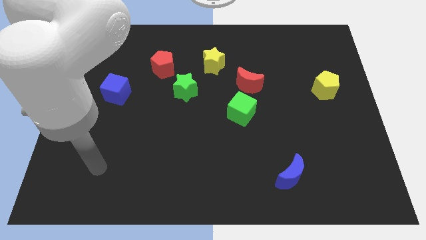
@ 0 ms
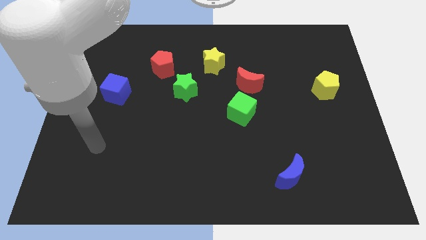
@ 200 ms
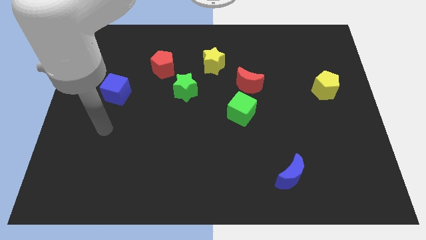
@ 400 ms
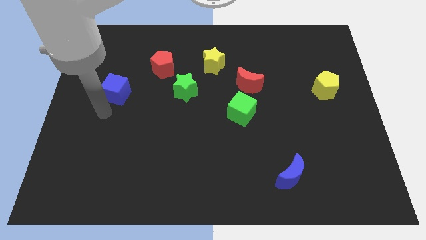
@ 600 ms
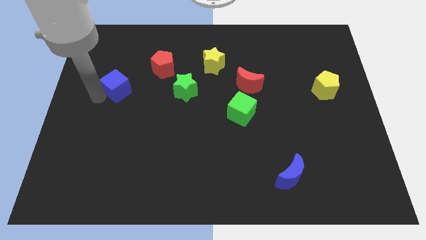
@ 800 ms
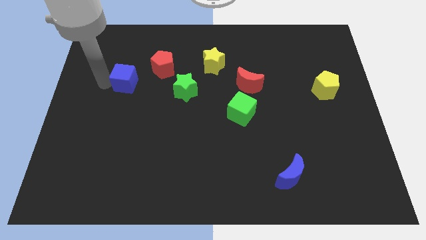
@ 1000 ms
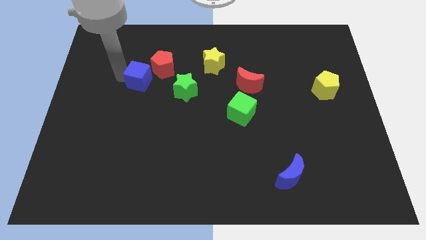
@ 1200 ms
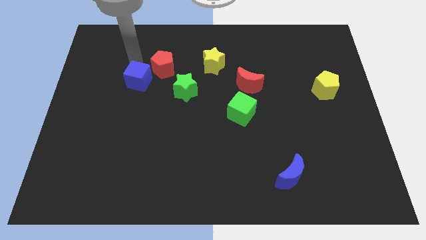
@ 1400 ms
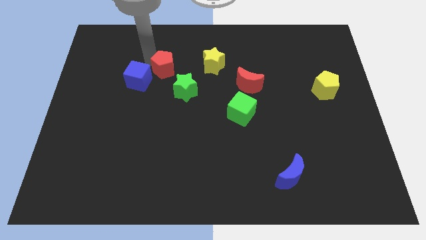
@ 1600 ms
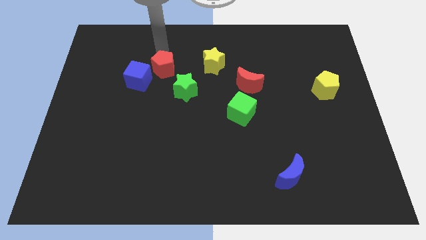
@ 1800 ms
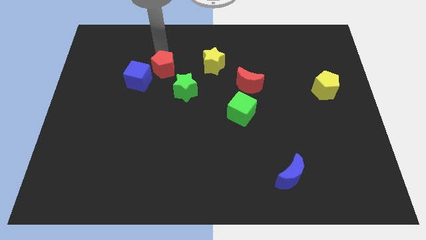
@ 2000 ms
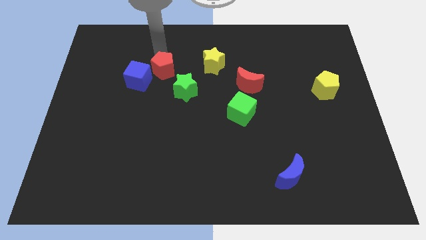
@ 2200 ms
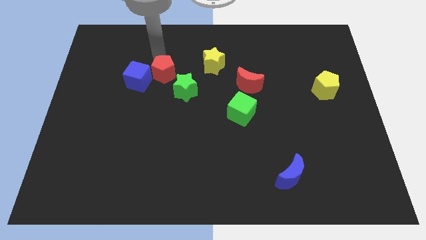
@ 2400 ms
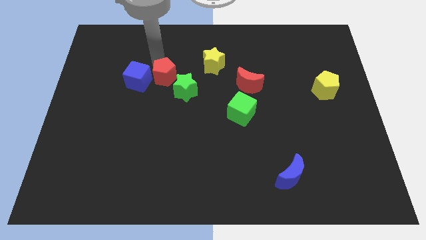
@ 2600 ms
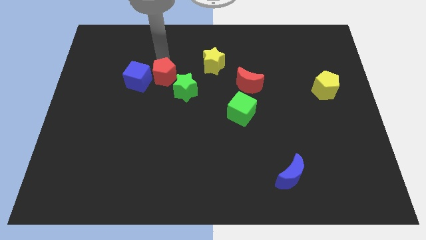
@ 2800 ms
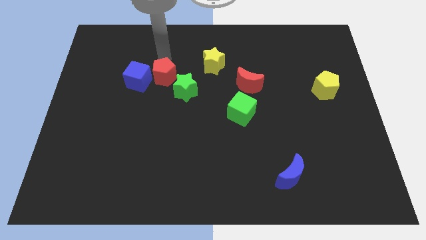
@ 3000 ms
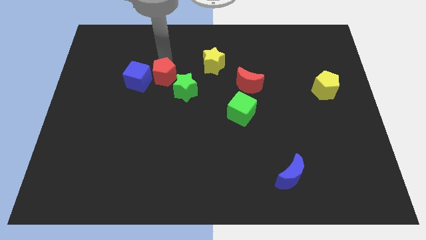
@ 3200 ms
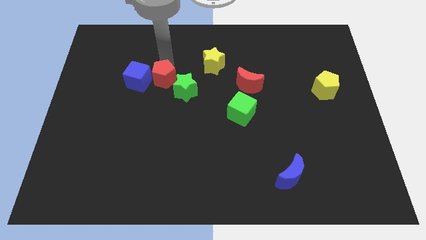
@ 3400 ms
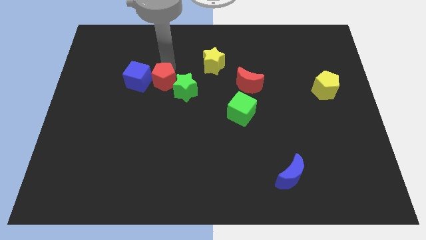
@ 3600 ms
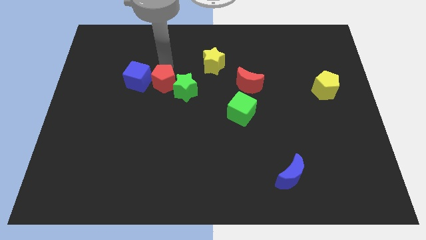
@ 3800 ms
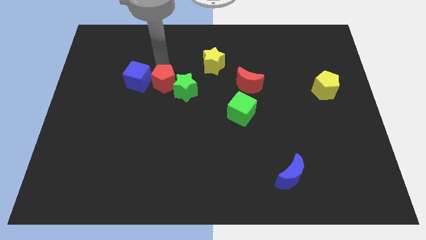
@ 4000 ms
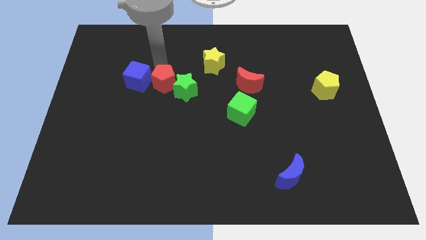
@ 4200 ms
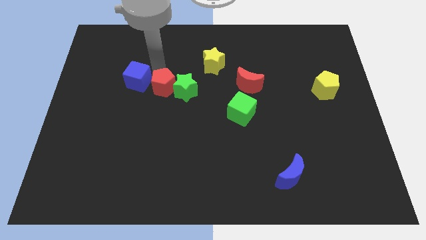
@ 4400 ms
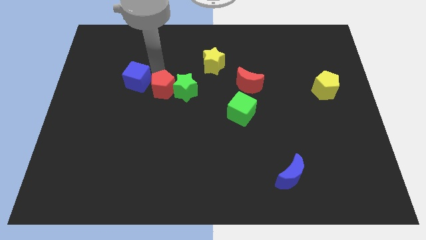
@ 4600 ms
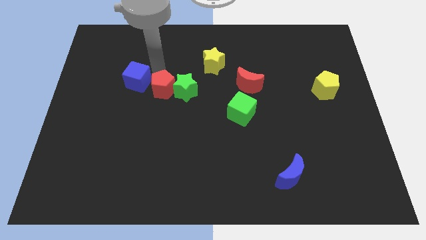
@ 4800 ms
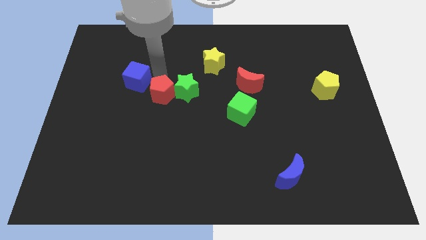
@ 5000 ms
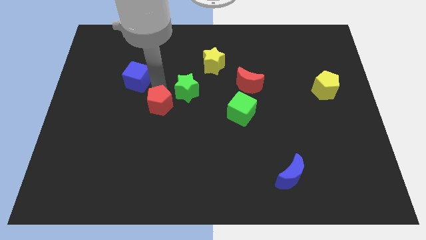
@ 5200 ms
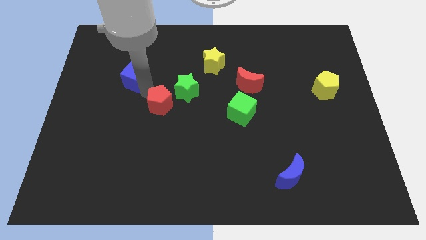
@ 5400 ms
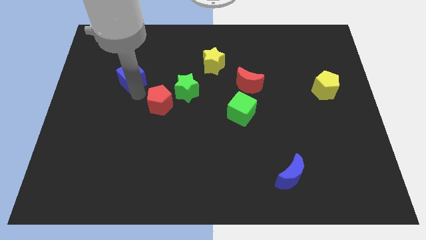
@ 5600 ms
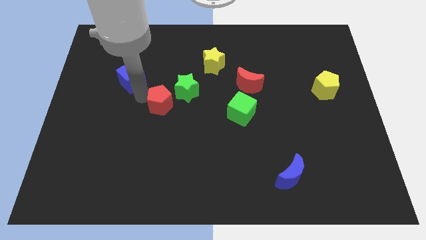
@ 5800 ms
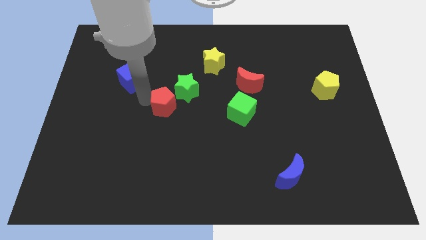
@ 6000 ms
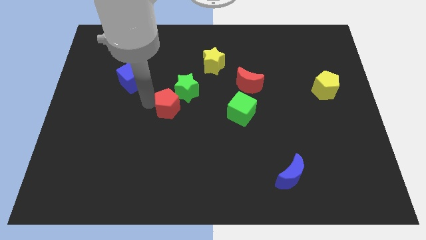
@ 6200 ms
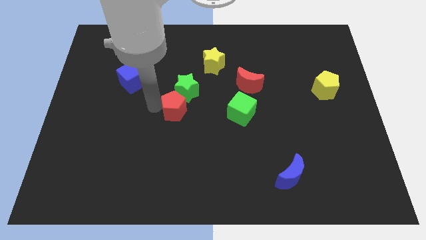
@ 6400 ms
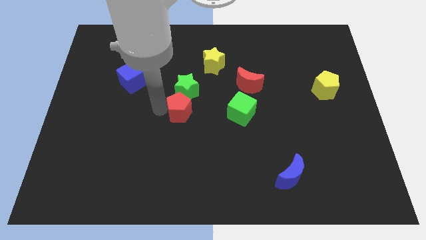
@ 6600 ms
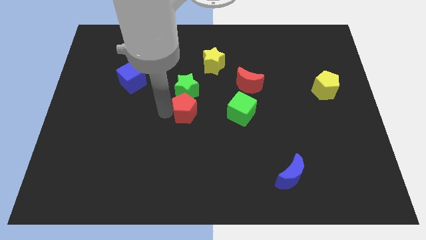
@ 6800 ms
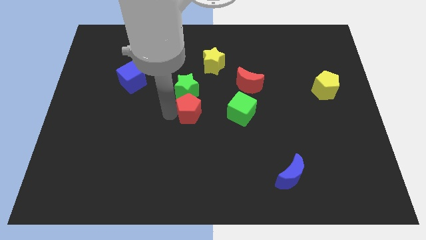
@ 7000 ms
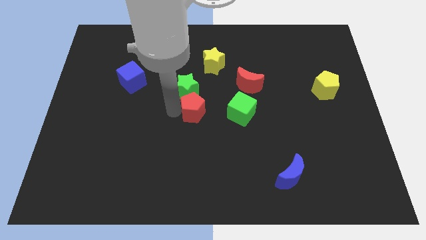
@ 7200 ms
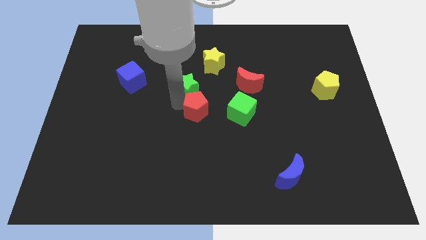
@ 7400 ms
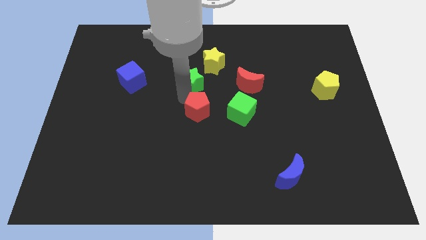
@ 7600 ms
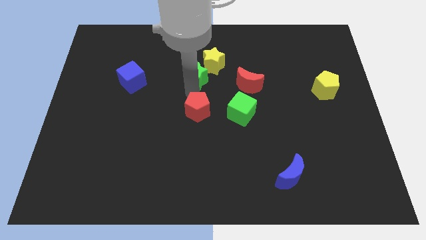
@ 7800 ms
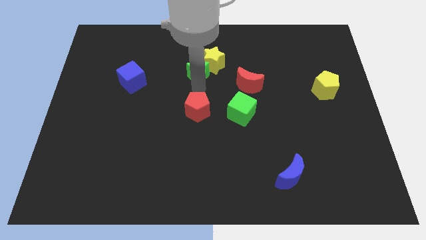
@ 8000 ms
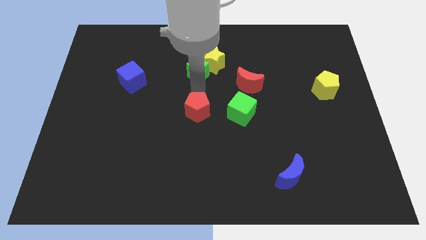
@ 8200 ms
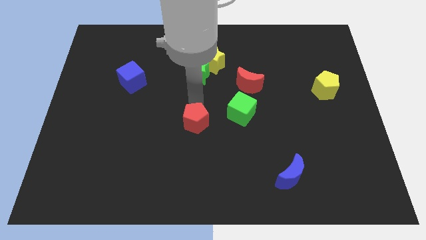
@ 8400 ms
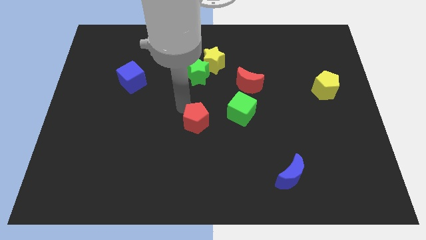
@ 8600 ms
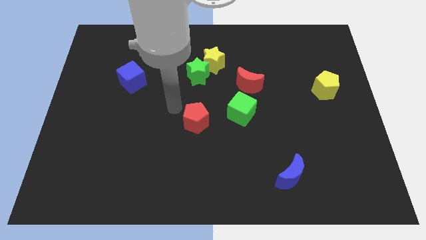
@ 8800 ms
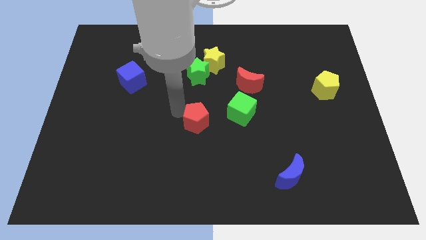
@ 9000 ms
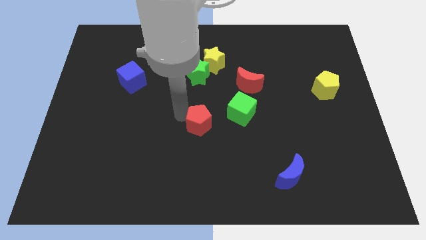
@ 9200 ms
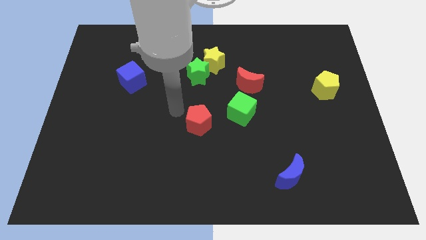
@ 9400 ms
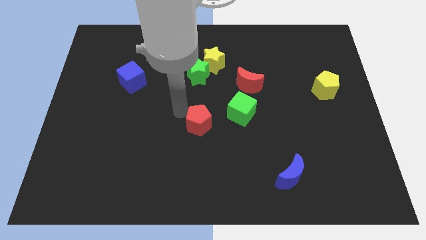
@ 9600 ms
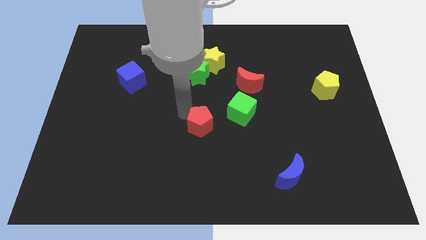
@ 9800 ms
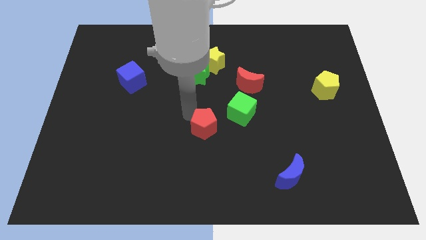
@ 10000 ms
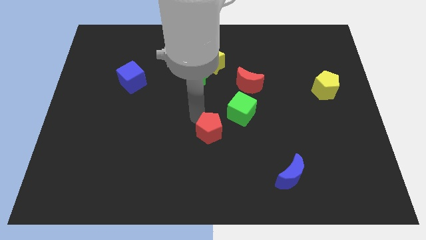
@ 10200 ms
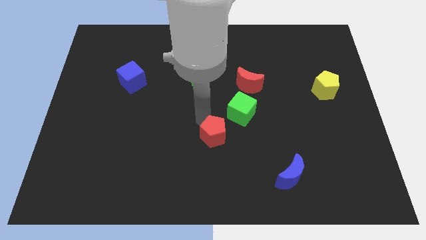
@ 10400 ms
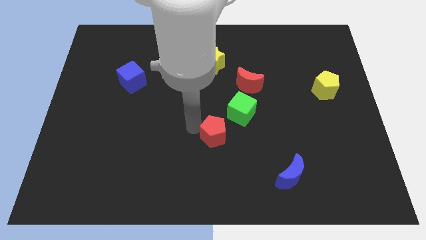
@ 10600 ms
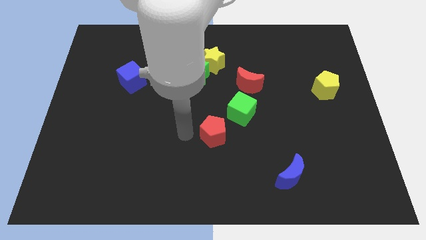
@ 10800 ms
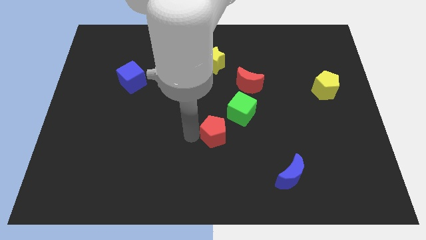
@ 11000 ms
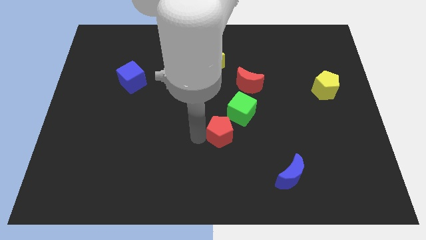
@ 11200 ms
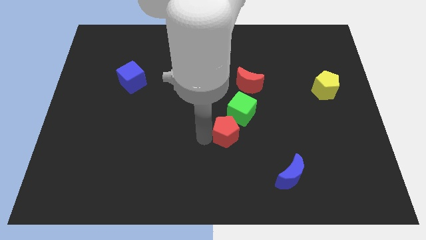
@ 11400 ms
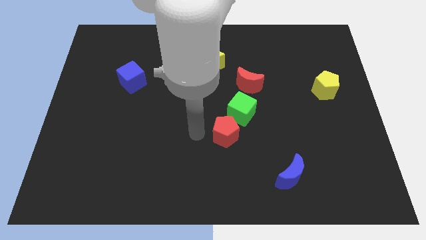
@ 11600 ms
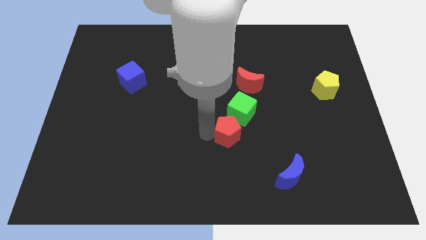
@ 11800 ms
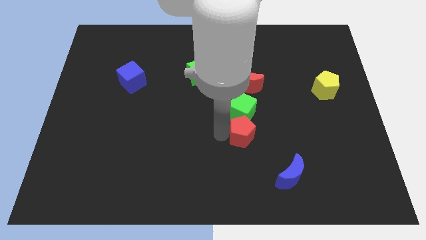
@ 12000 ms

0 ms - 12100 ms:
push the red pentagon diagonally down and to the right of the green cube
